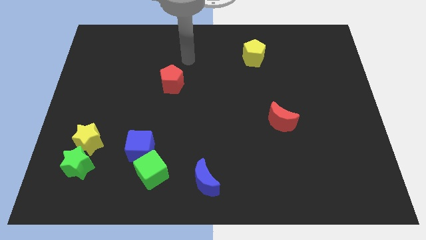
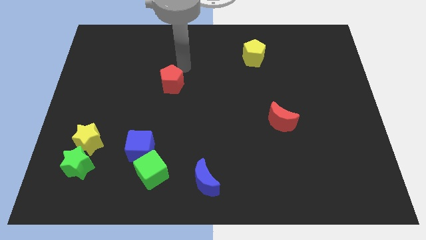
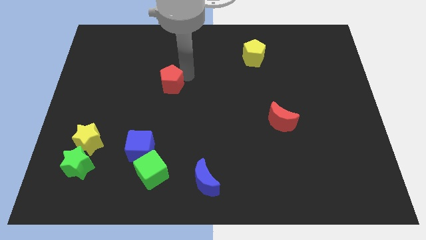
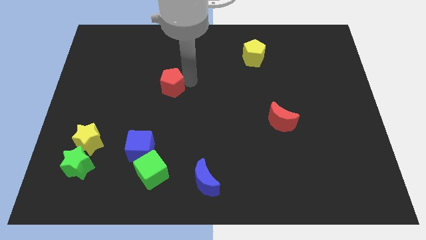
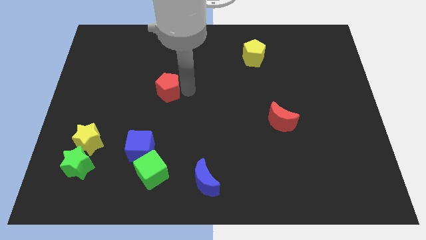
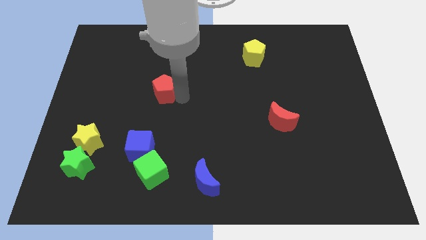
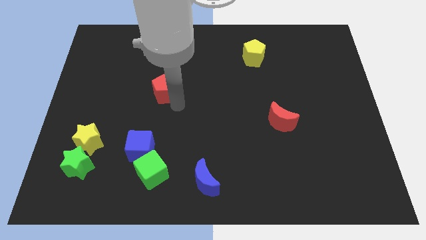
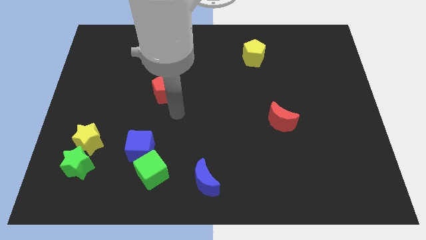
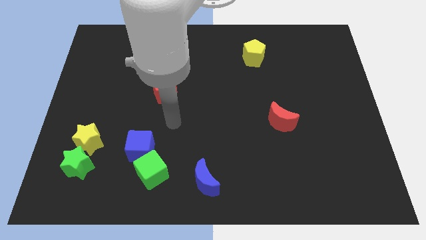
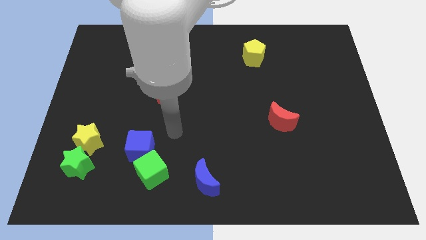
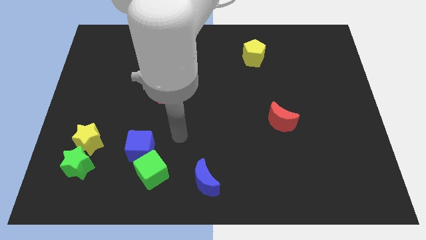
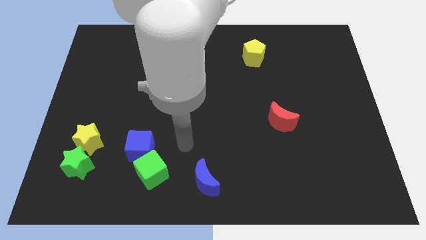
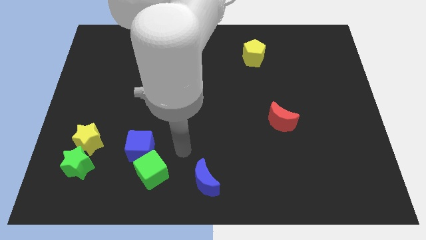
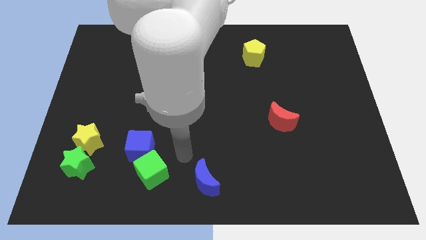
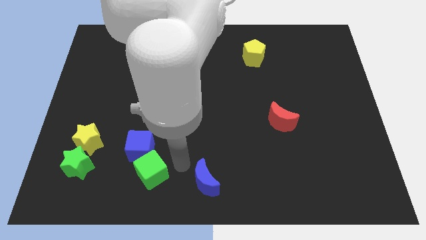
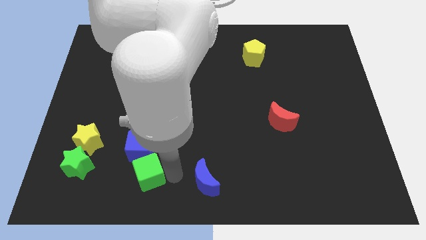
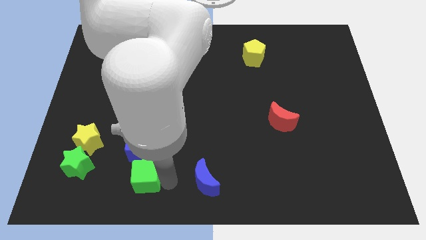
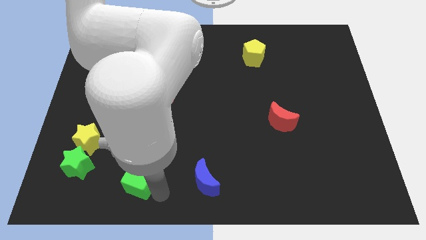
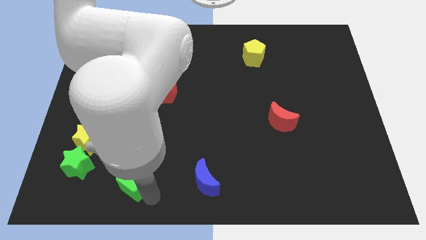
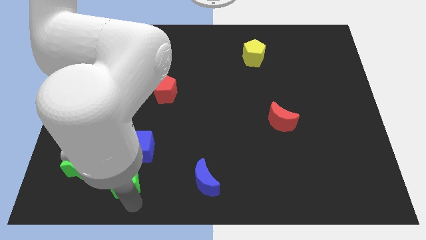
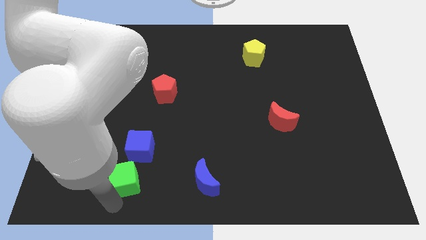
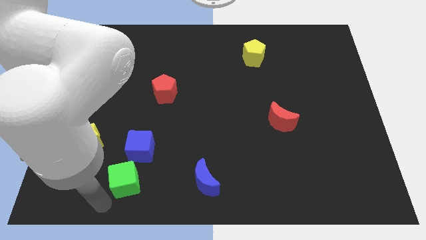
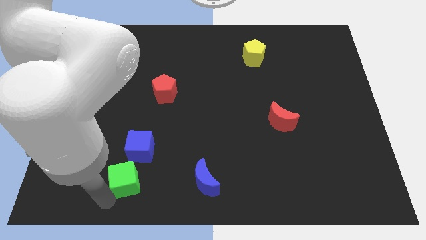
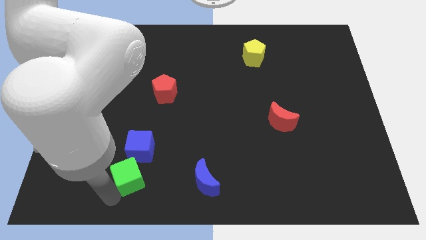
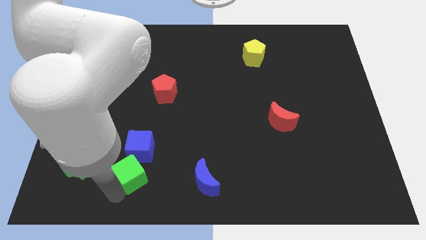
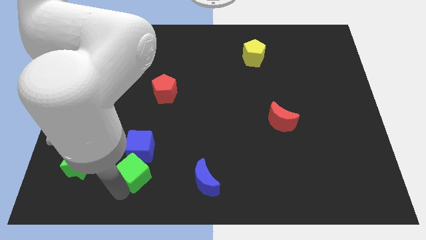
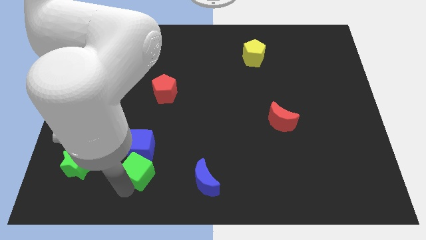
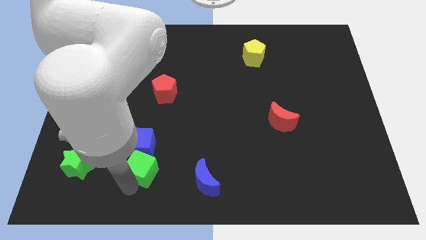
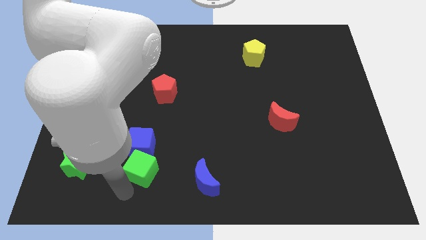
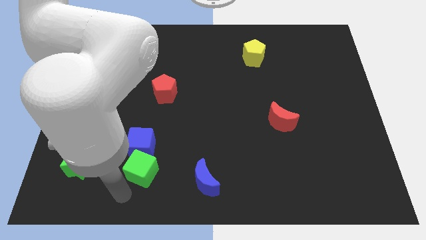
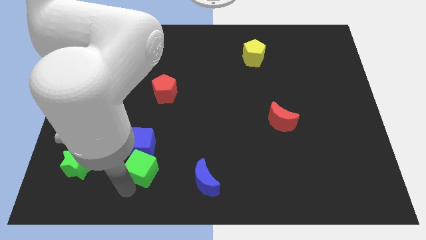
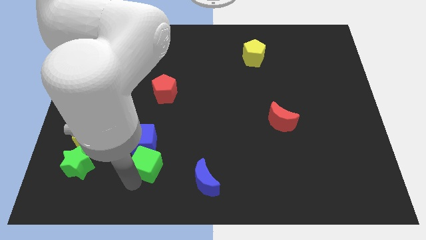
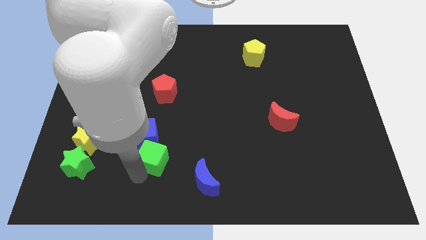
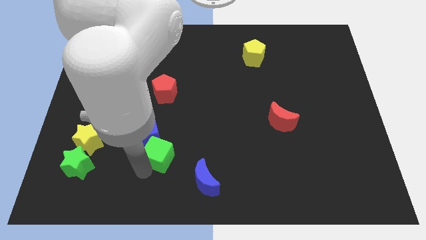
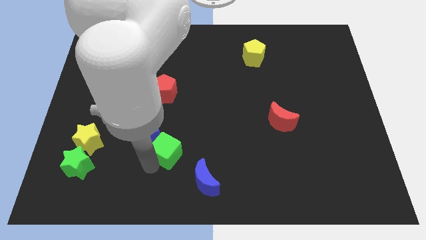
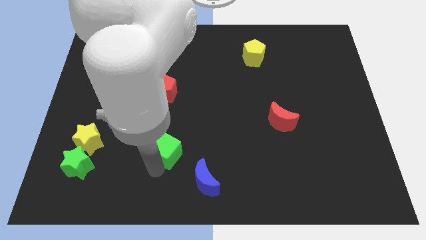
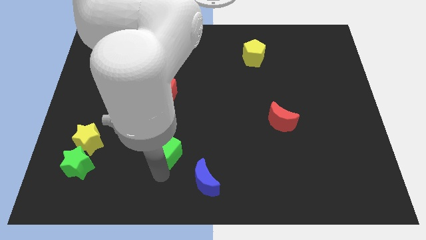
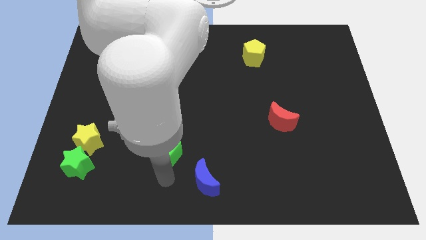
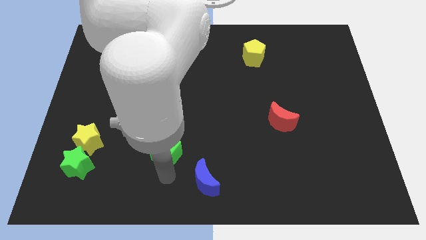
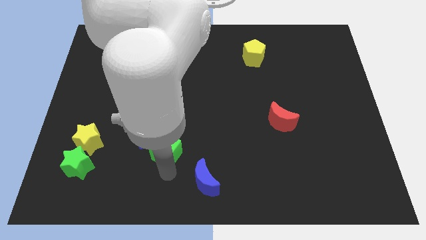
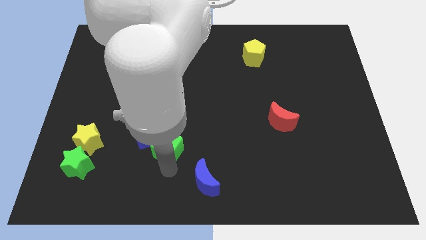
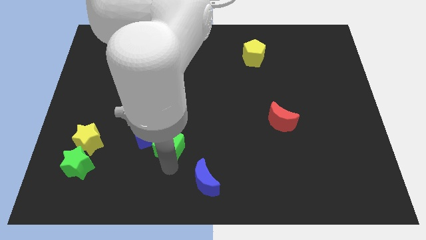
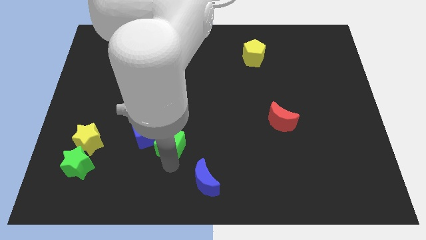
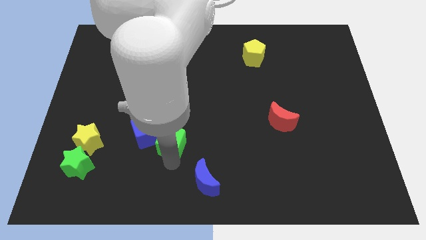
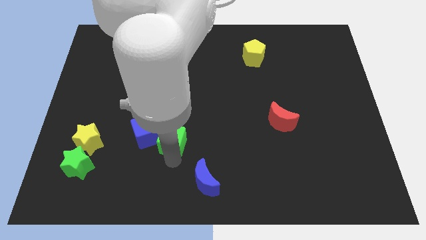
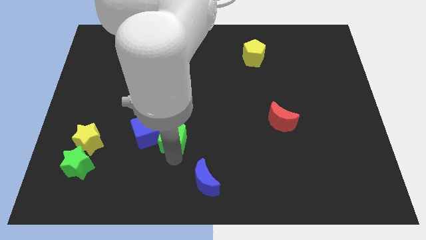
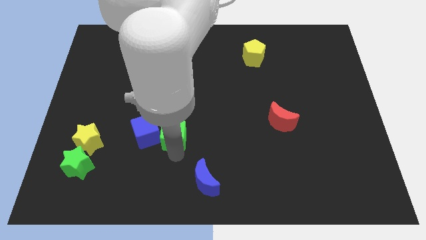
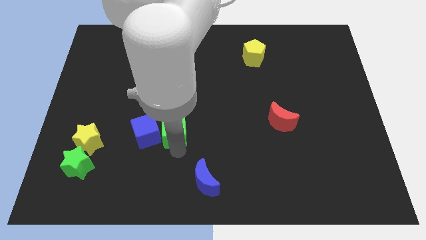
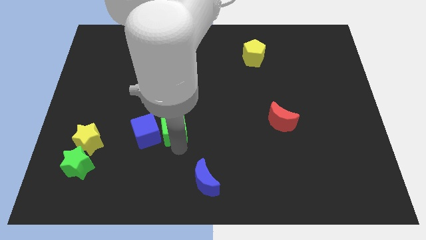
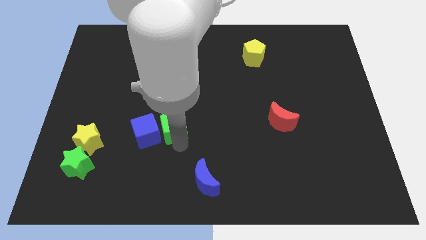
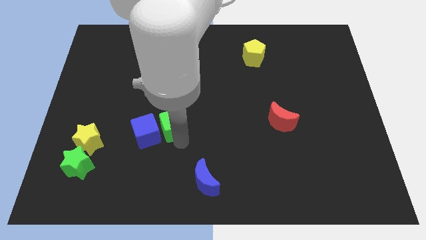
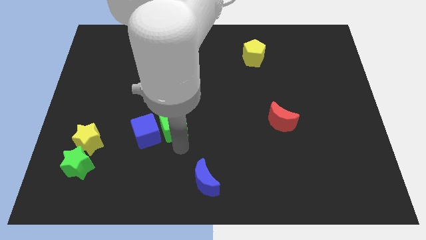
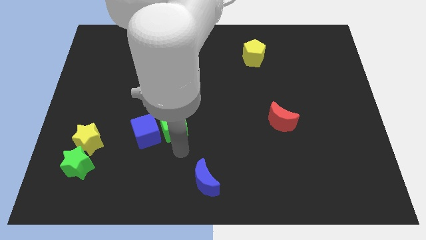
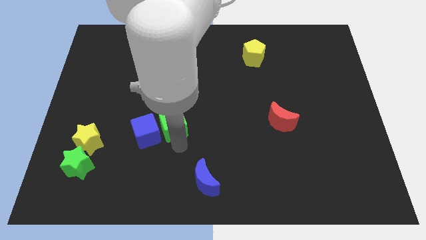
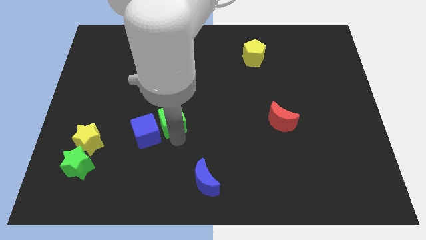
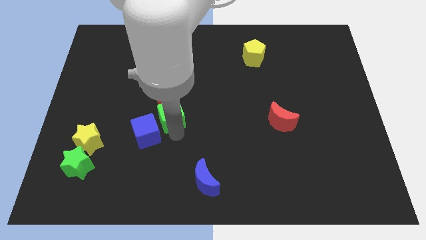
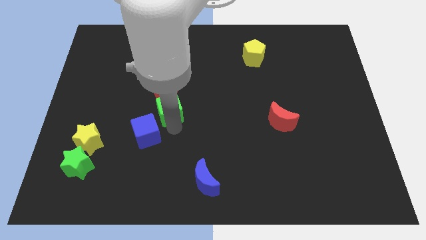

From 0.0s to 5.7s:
put the green cube close to the red pentagon

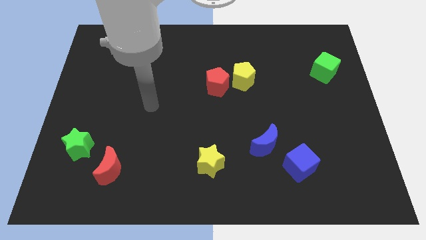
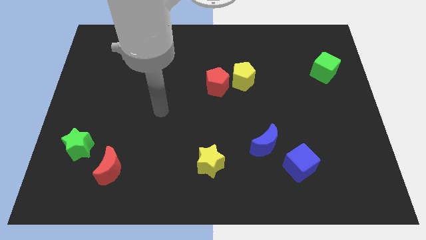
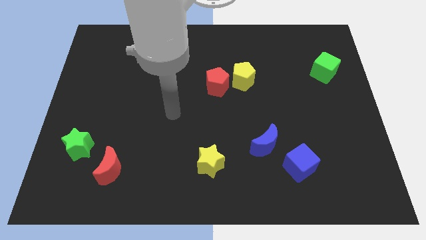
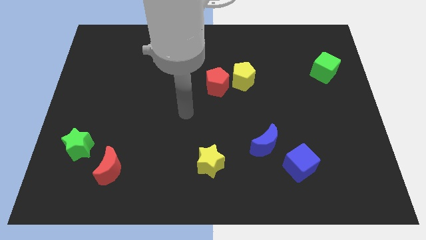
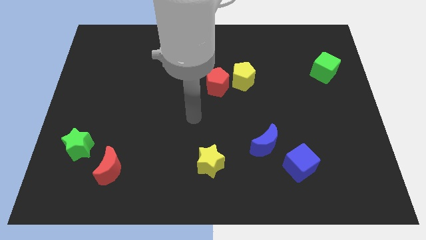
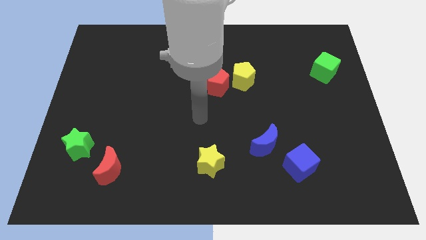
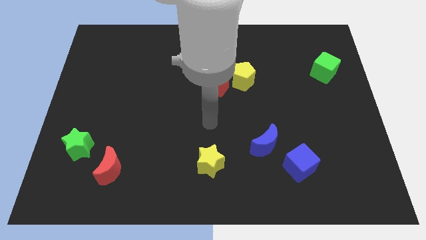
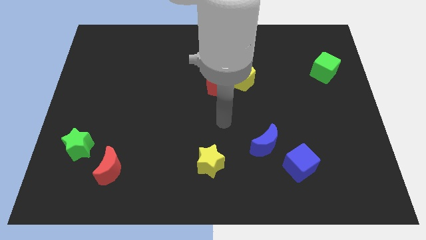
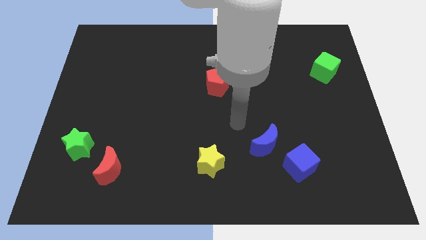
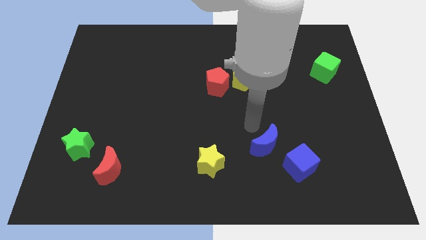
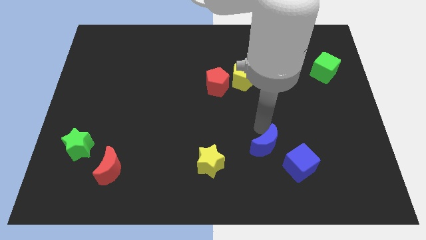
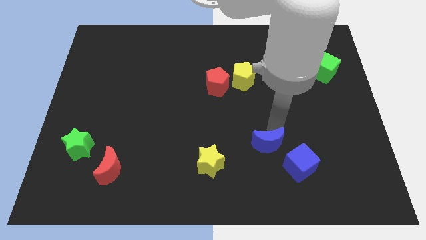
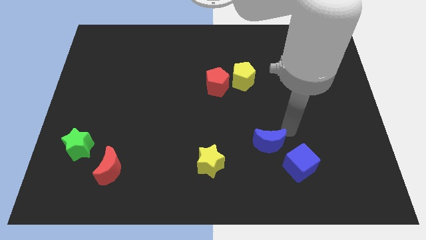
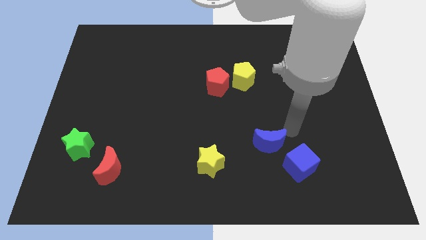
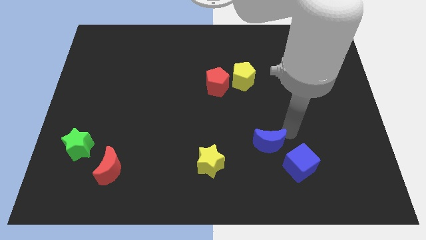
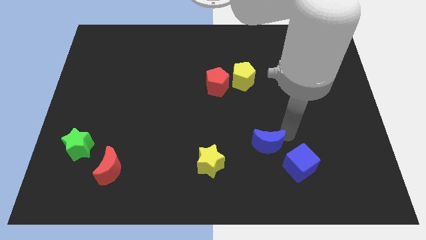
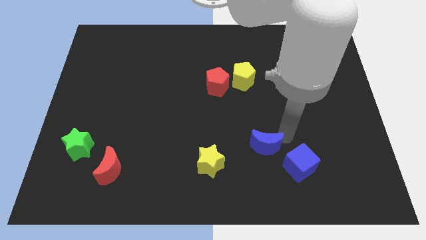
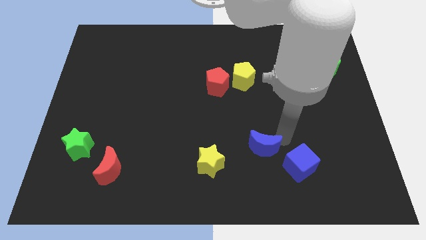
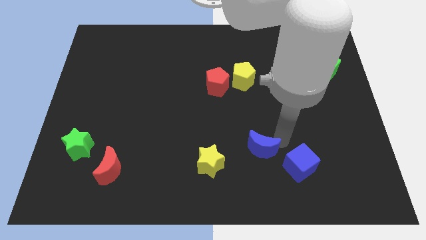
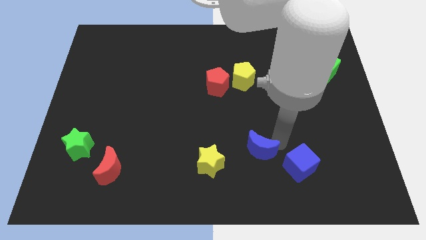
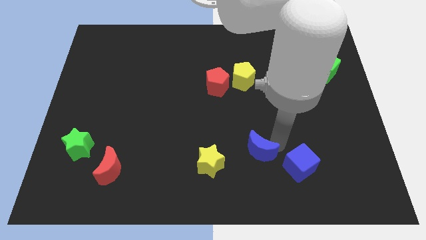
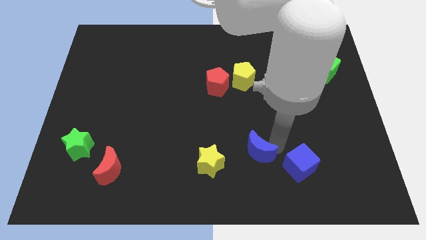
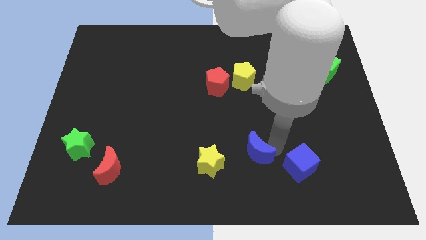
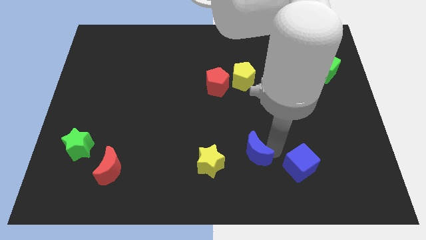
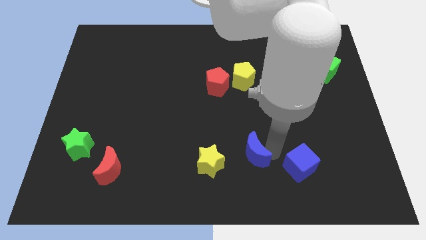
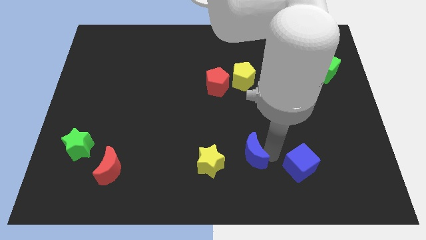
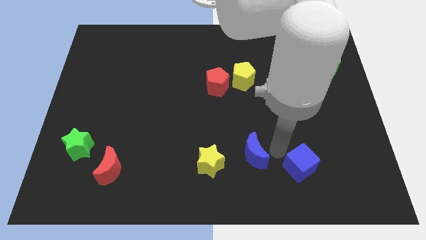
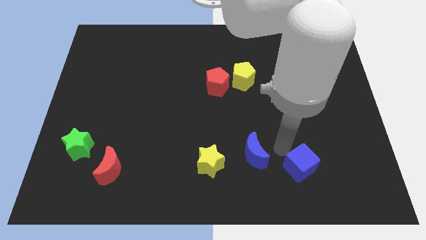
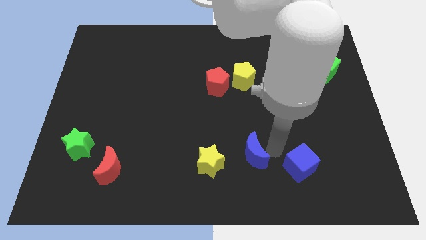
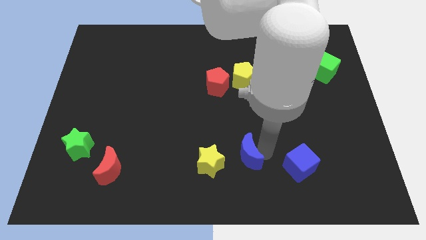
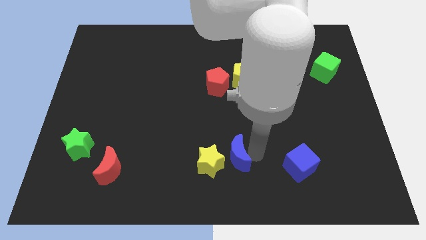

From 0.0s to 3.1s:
put the blue moon towards the yellow star
